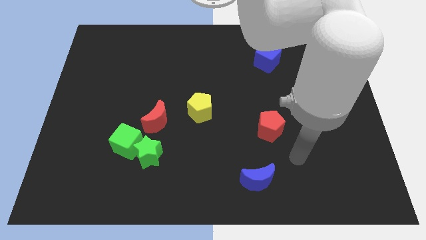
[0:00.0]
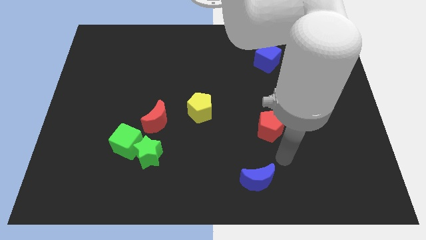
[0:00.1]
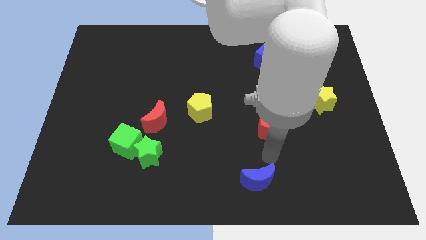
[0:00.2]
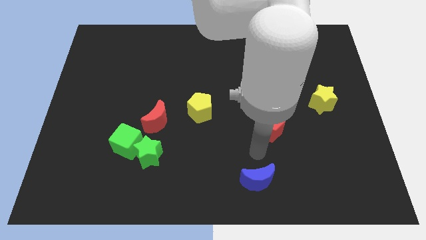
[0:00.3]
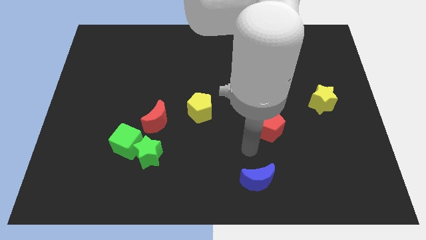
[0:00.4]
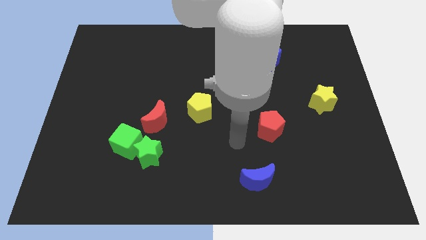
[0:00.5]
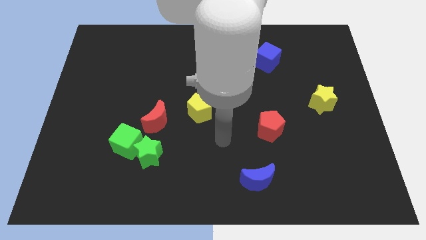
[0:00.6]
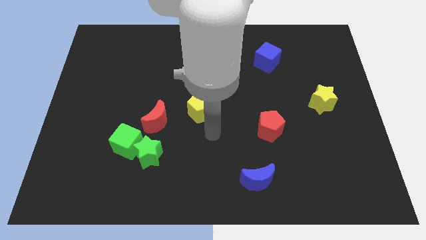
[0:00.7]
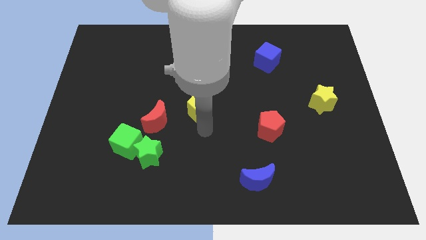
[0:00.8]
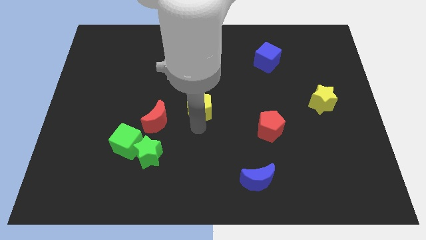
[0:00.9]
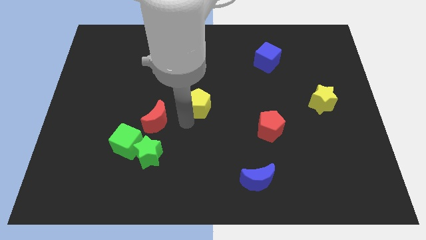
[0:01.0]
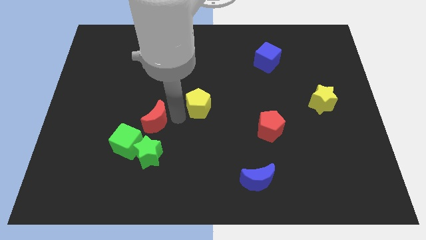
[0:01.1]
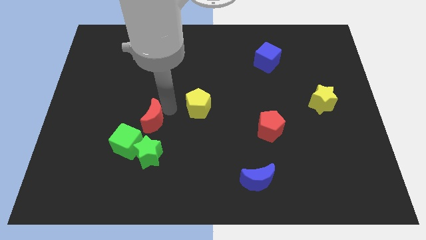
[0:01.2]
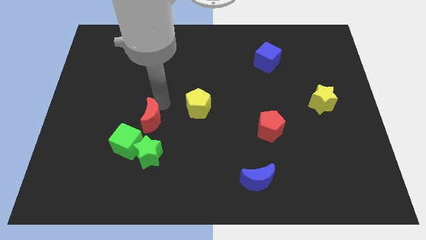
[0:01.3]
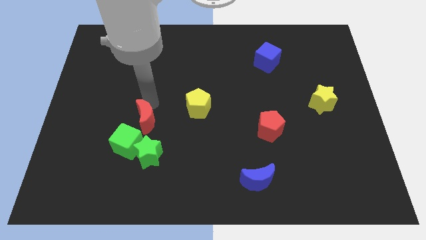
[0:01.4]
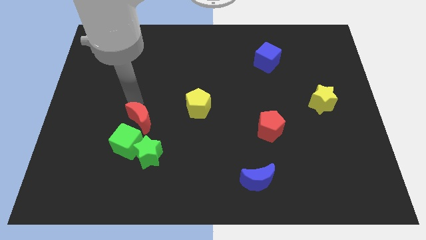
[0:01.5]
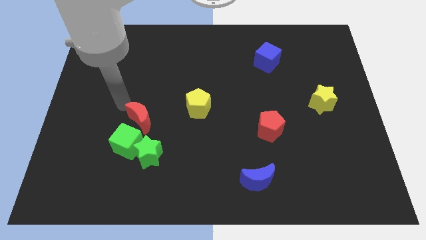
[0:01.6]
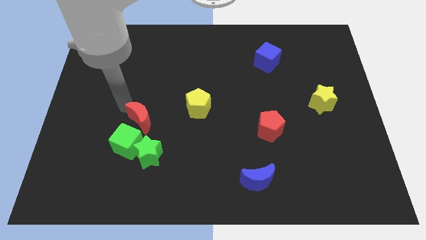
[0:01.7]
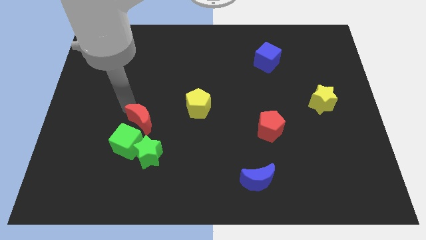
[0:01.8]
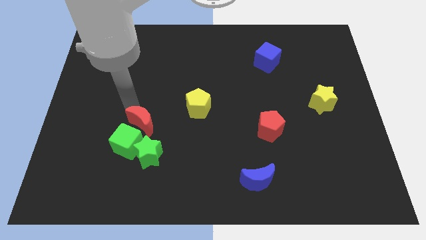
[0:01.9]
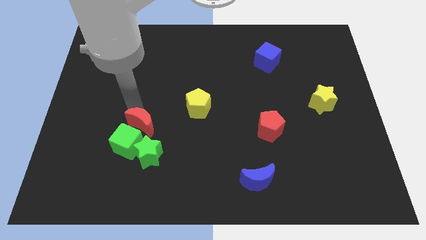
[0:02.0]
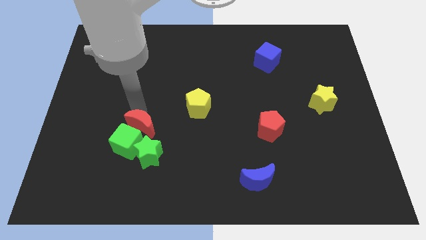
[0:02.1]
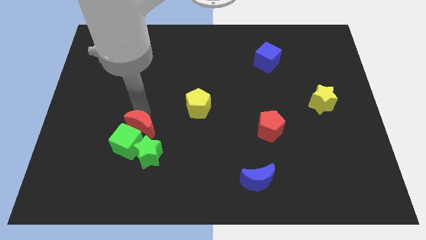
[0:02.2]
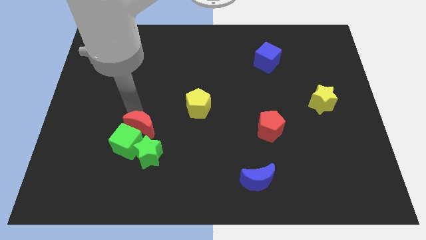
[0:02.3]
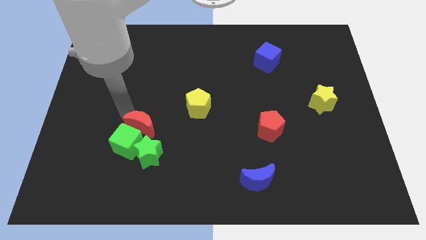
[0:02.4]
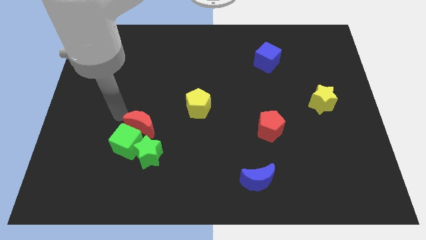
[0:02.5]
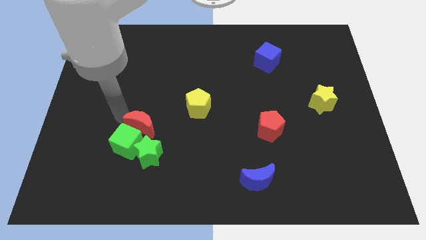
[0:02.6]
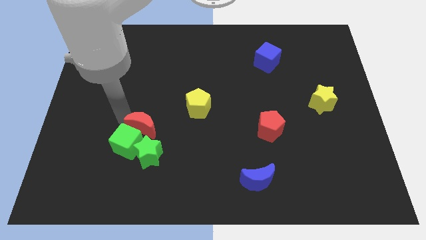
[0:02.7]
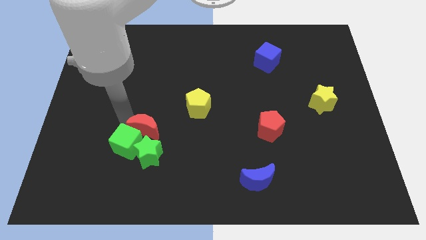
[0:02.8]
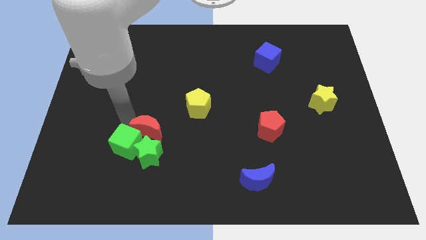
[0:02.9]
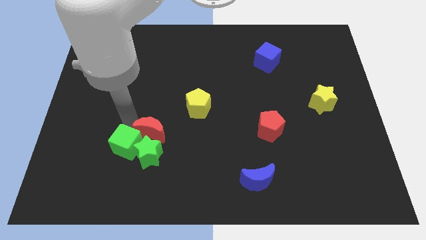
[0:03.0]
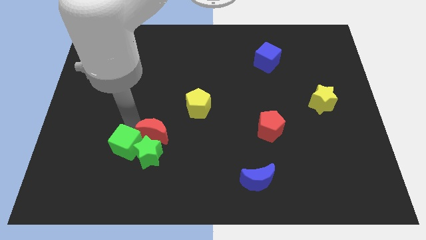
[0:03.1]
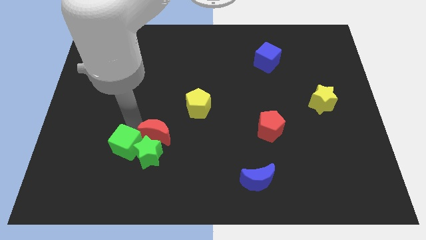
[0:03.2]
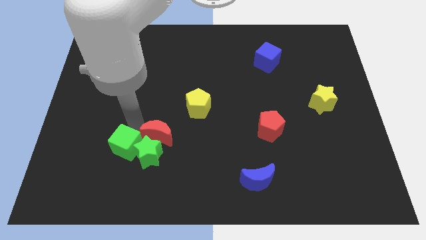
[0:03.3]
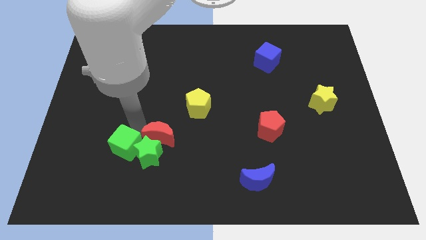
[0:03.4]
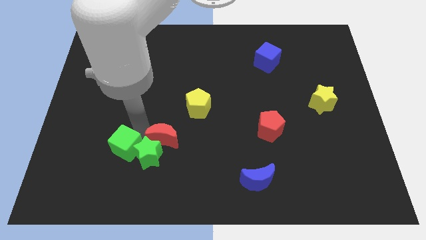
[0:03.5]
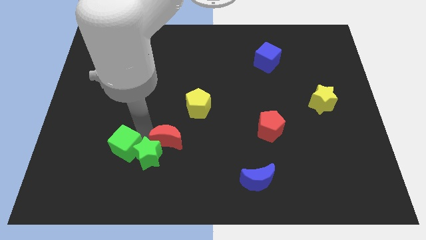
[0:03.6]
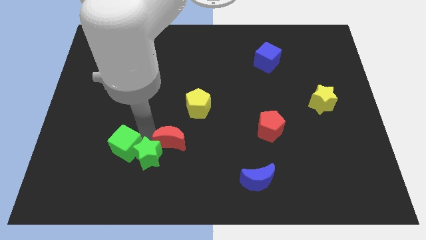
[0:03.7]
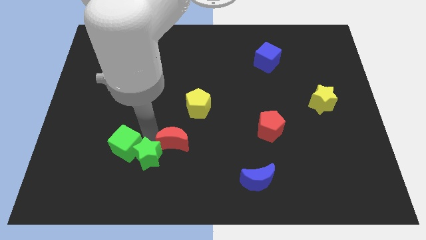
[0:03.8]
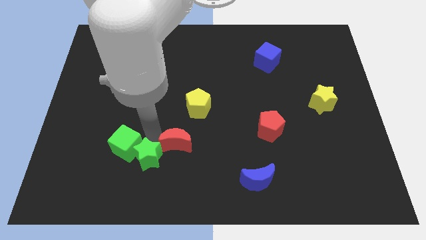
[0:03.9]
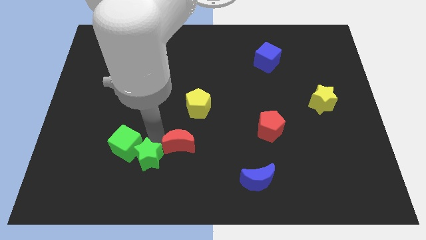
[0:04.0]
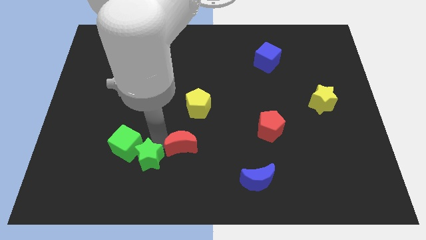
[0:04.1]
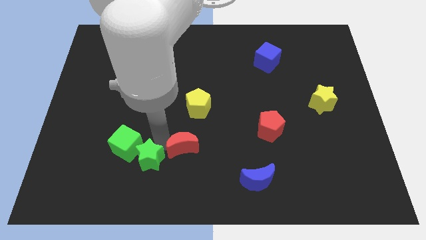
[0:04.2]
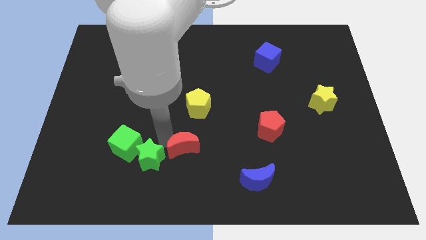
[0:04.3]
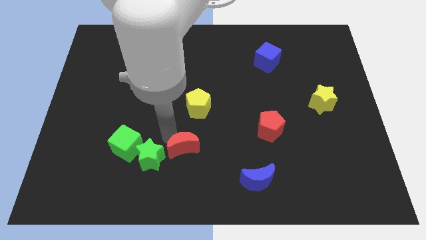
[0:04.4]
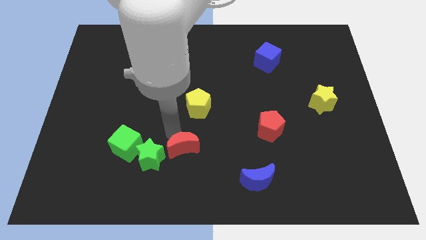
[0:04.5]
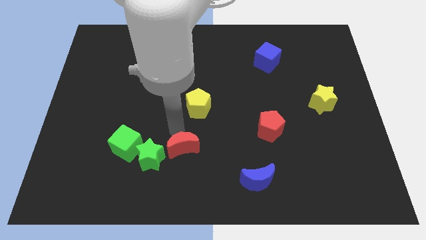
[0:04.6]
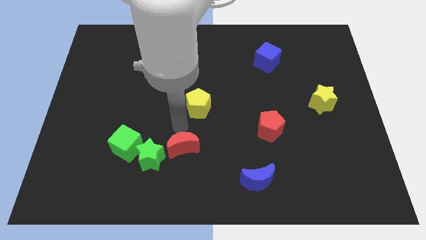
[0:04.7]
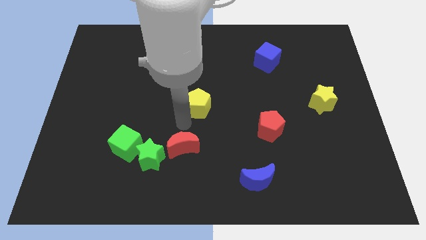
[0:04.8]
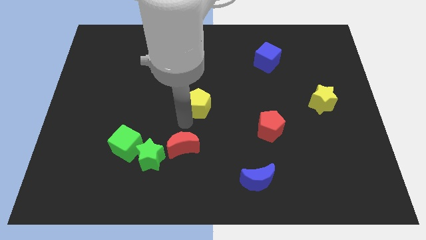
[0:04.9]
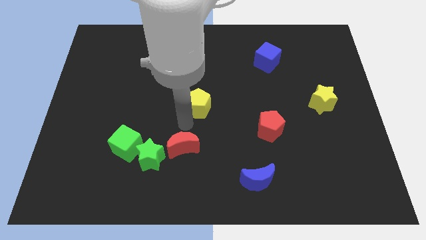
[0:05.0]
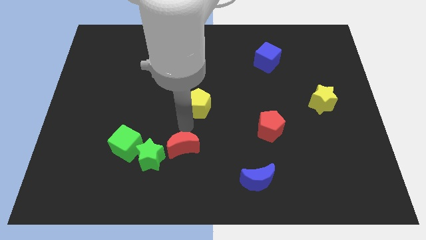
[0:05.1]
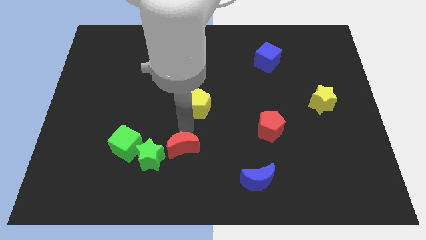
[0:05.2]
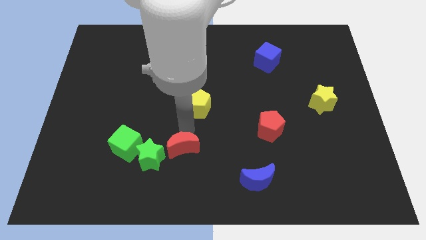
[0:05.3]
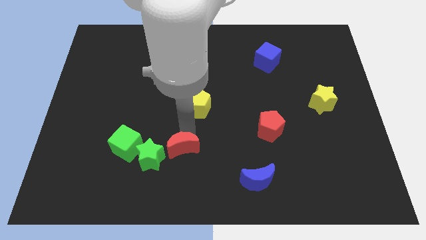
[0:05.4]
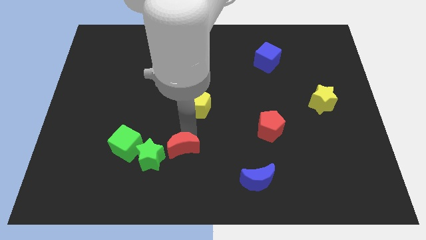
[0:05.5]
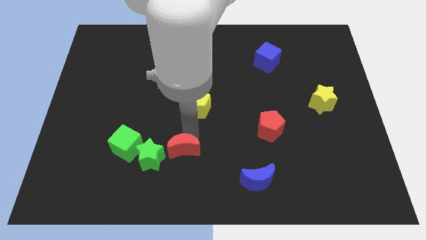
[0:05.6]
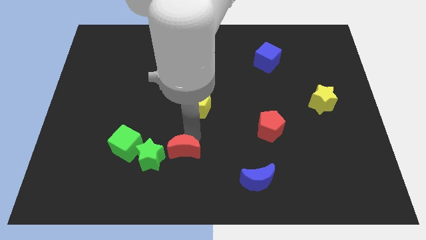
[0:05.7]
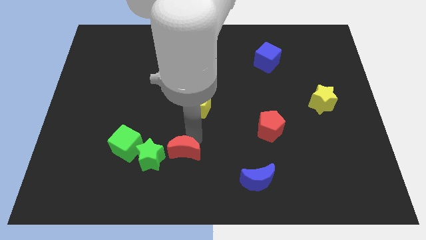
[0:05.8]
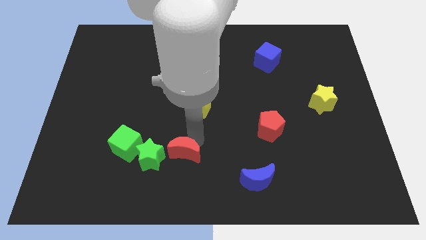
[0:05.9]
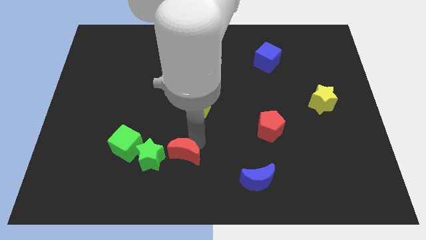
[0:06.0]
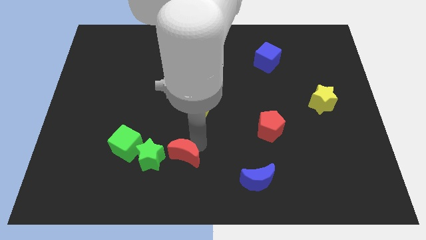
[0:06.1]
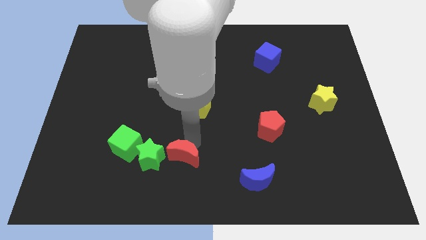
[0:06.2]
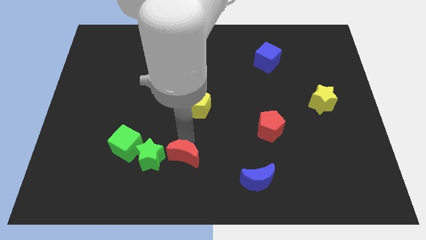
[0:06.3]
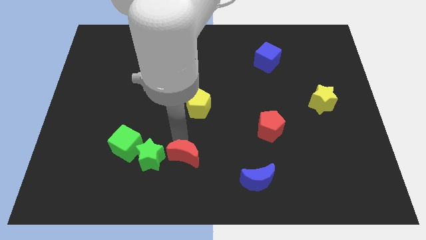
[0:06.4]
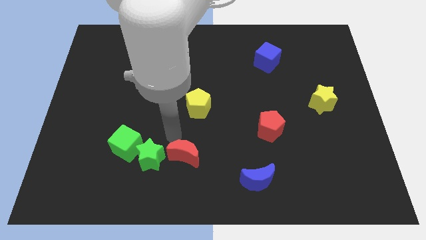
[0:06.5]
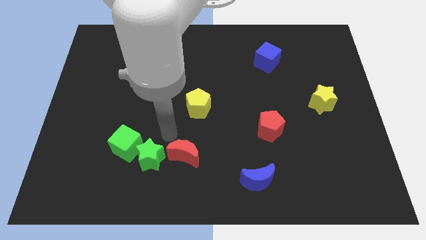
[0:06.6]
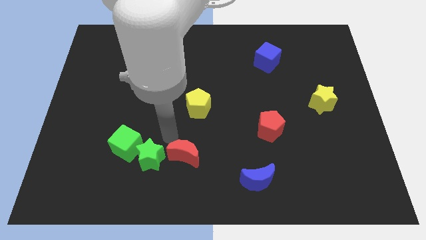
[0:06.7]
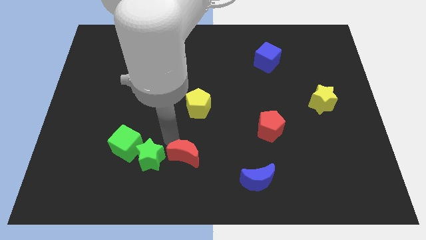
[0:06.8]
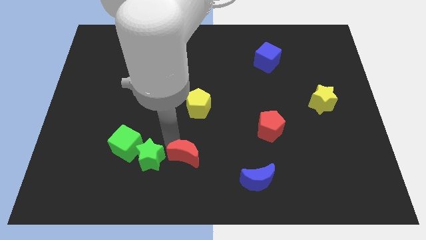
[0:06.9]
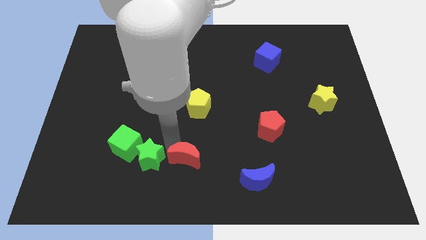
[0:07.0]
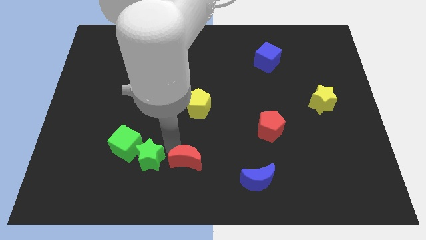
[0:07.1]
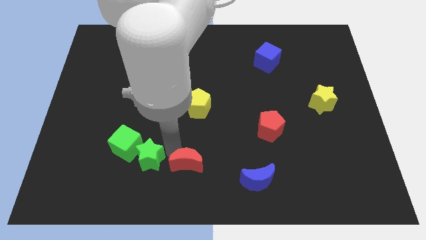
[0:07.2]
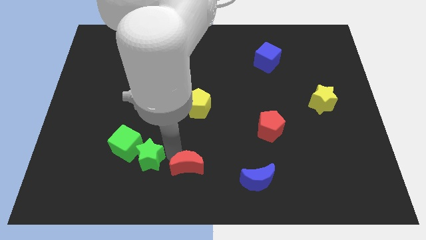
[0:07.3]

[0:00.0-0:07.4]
push the red moon to the left side of the blue moon

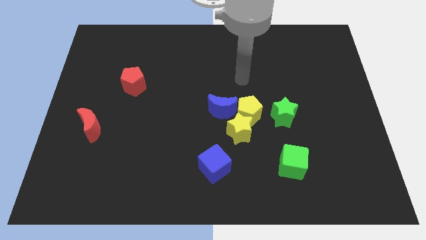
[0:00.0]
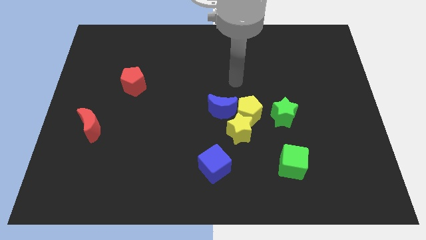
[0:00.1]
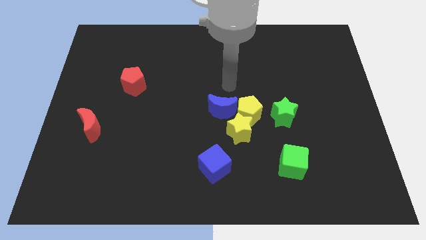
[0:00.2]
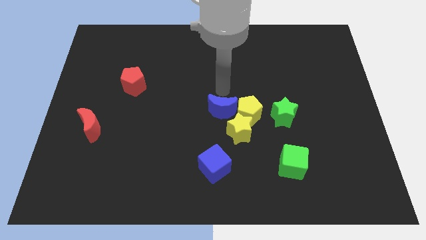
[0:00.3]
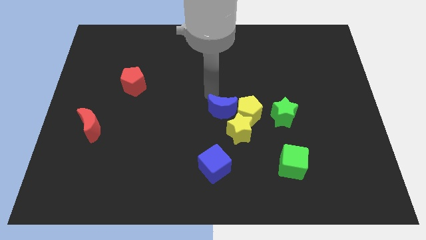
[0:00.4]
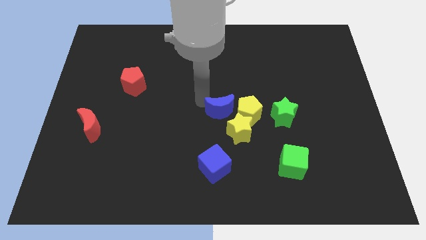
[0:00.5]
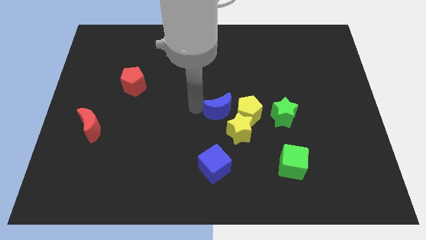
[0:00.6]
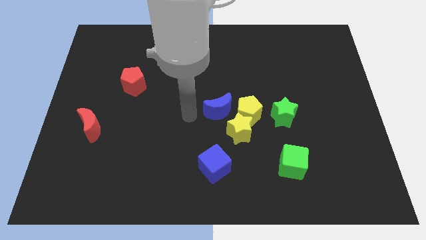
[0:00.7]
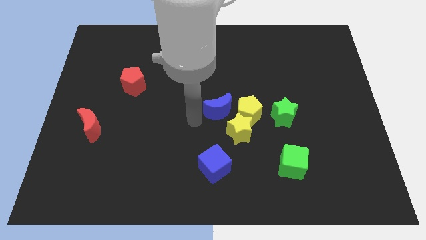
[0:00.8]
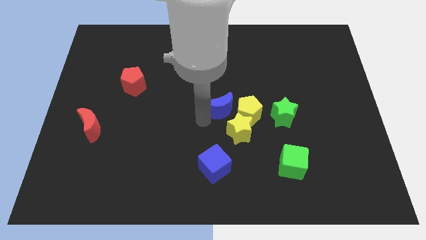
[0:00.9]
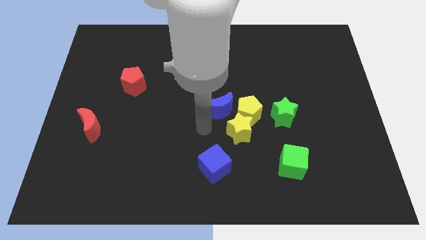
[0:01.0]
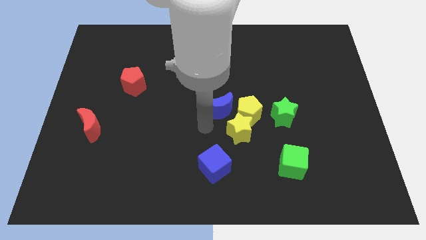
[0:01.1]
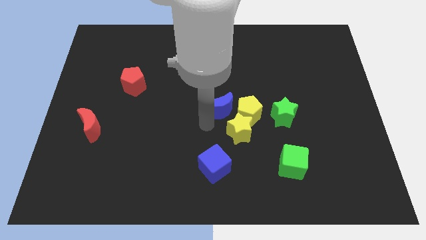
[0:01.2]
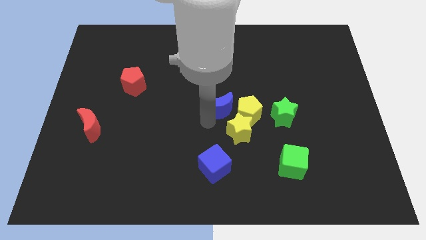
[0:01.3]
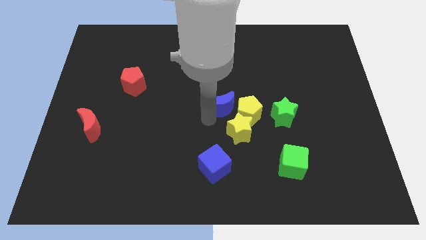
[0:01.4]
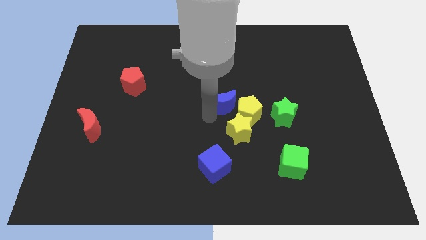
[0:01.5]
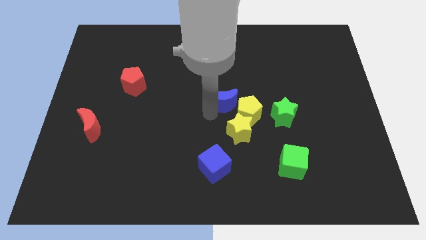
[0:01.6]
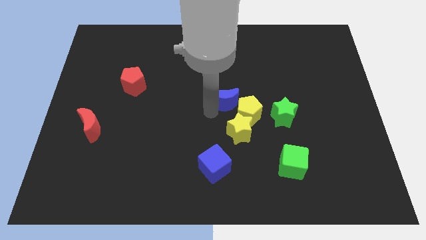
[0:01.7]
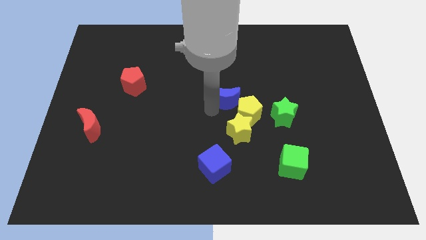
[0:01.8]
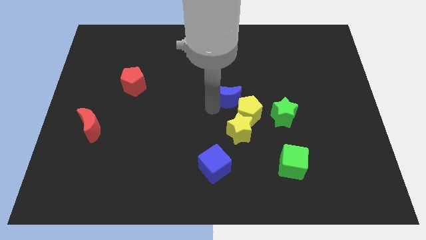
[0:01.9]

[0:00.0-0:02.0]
push the blue moon to the top of the yellow pentagon
